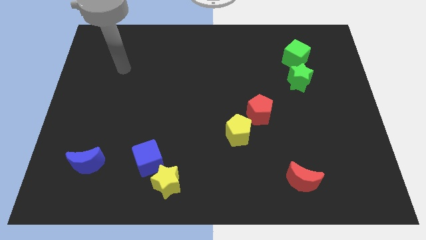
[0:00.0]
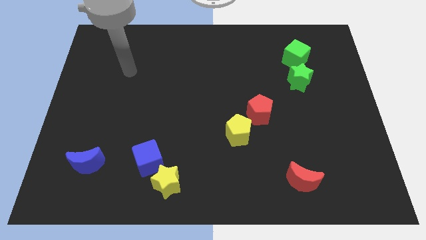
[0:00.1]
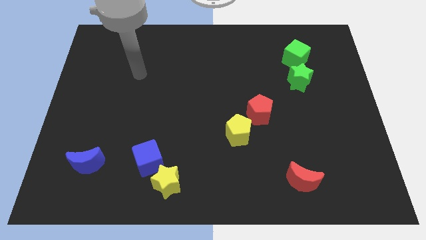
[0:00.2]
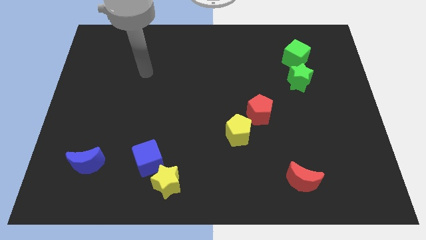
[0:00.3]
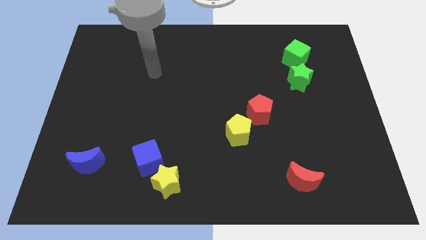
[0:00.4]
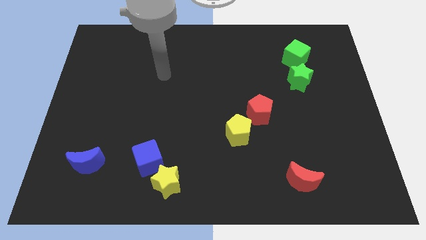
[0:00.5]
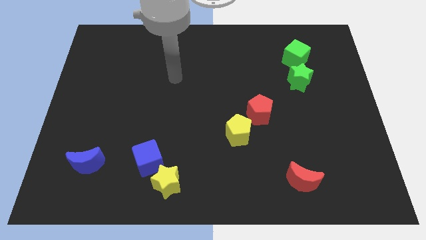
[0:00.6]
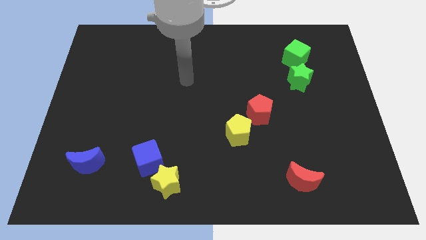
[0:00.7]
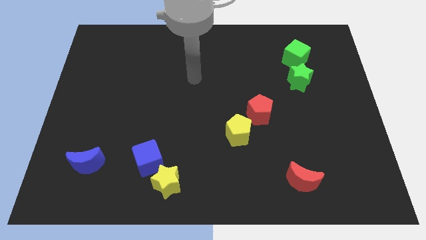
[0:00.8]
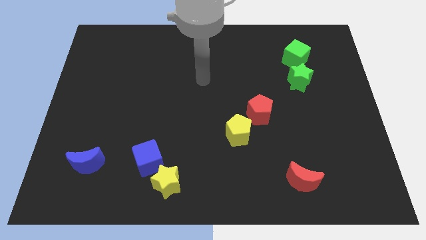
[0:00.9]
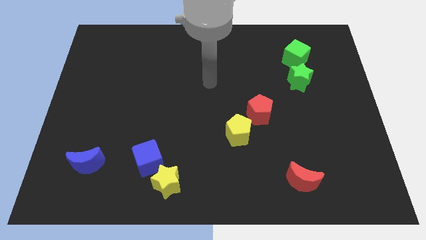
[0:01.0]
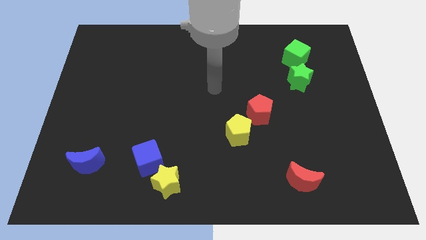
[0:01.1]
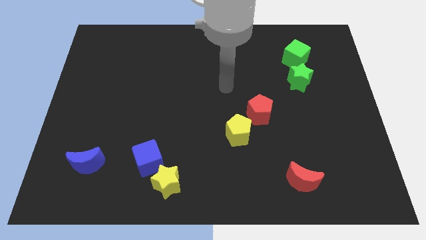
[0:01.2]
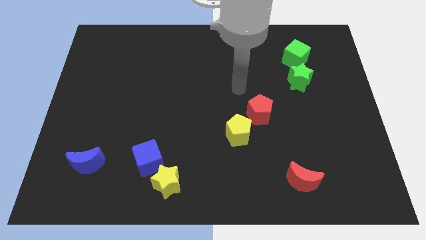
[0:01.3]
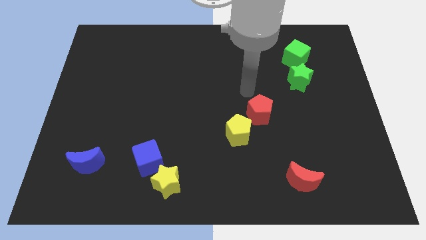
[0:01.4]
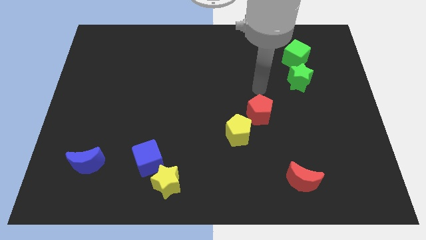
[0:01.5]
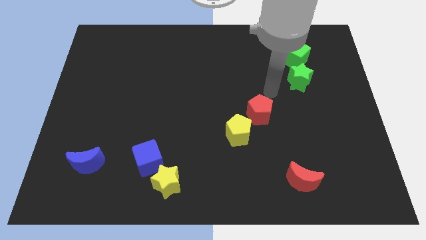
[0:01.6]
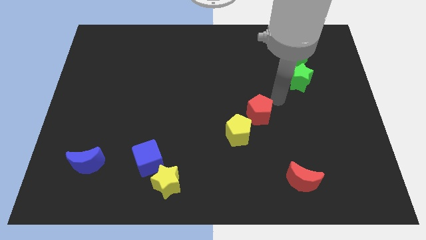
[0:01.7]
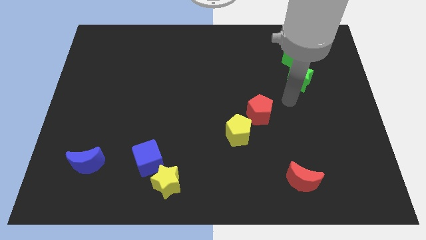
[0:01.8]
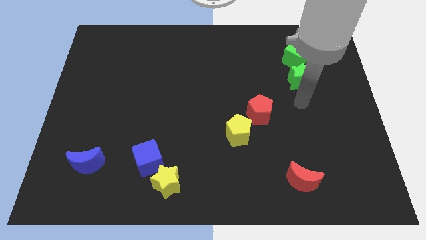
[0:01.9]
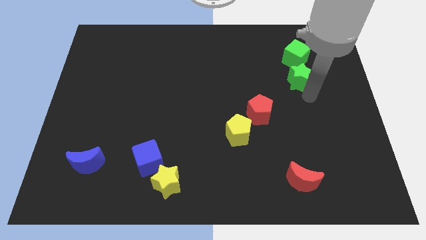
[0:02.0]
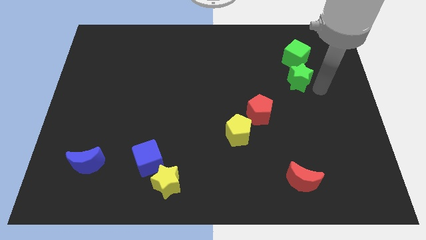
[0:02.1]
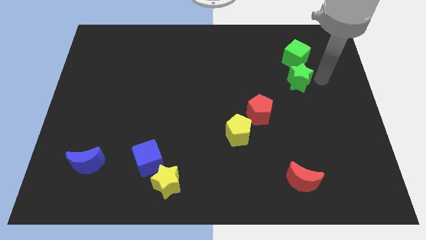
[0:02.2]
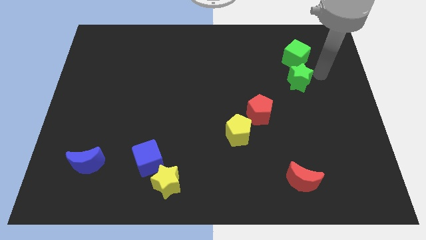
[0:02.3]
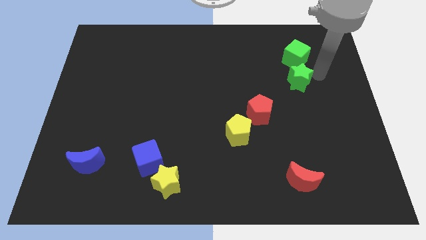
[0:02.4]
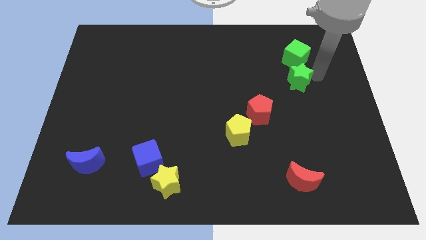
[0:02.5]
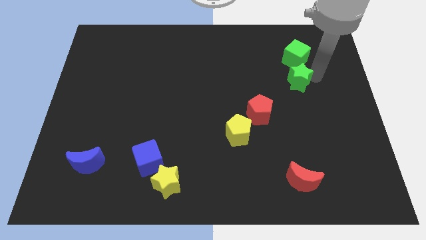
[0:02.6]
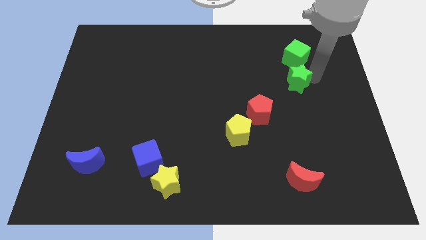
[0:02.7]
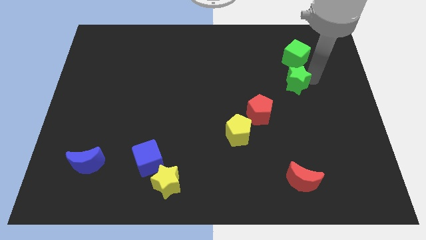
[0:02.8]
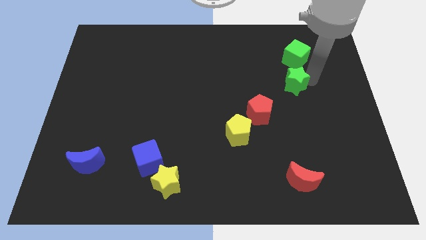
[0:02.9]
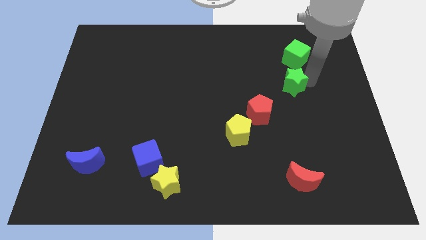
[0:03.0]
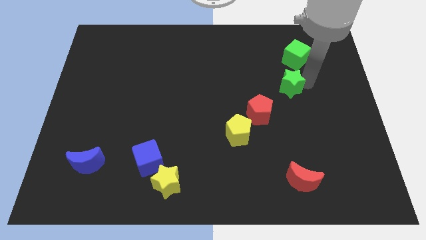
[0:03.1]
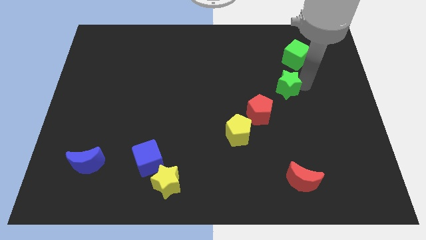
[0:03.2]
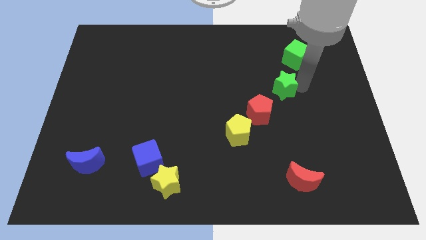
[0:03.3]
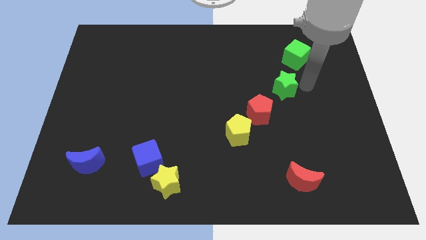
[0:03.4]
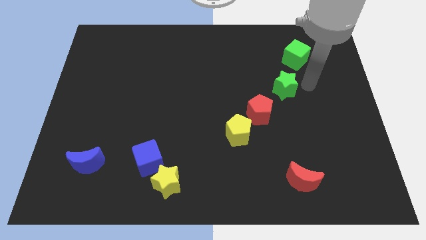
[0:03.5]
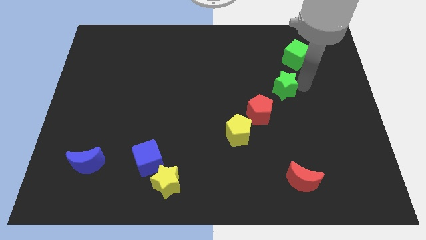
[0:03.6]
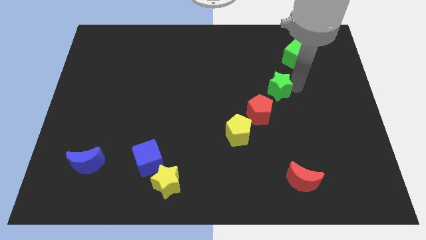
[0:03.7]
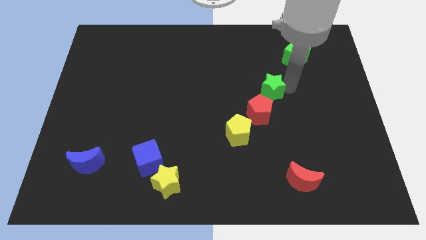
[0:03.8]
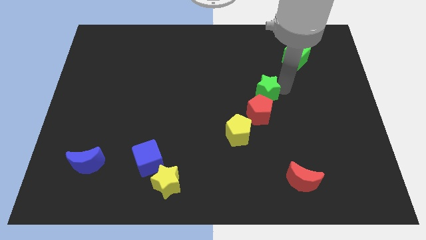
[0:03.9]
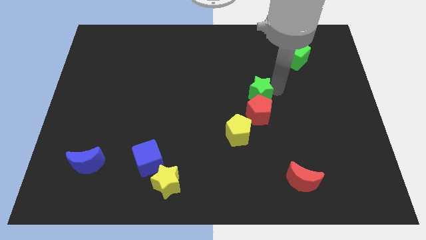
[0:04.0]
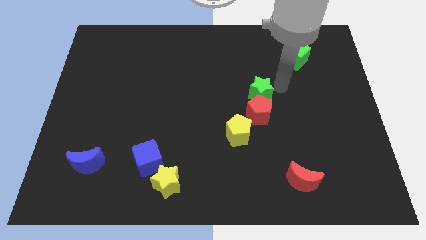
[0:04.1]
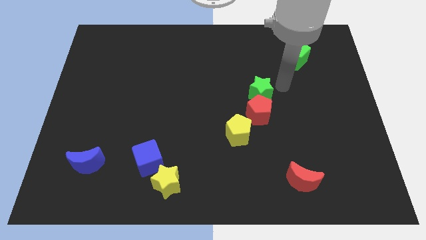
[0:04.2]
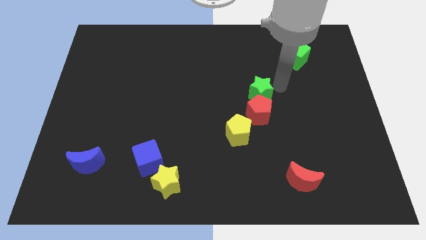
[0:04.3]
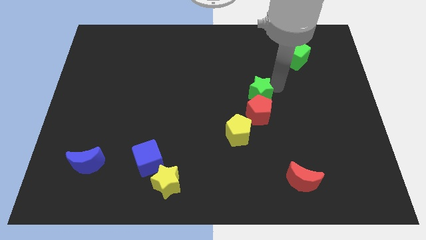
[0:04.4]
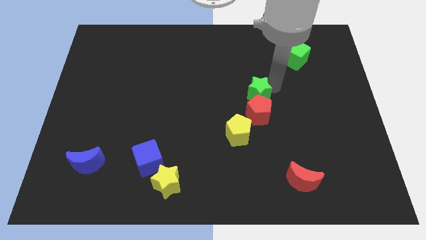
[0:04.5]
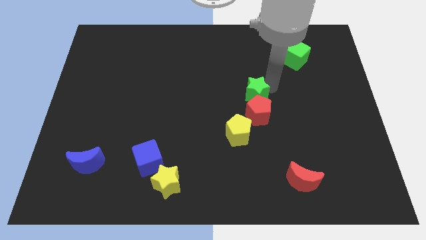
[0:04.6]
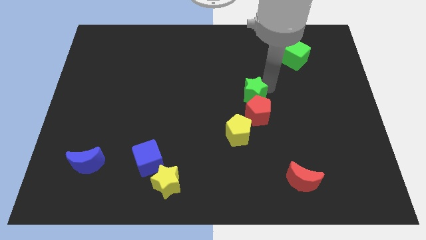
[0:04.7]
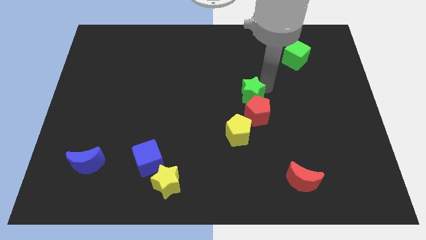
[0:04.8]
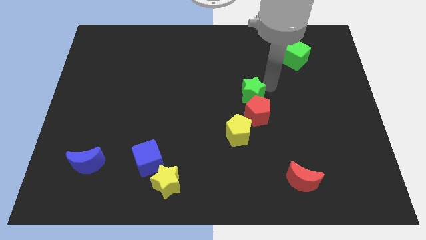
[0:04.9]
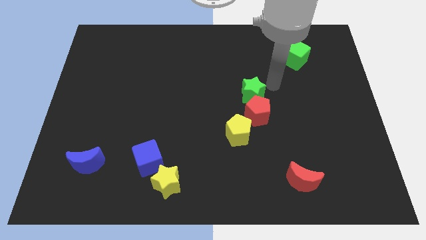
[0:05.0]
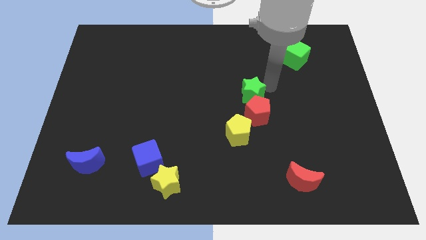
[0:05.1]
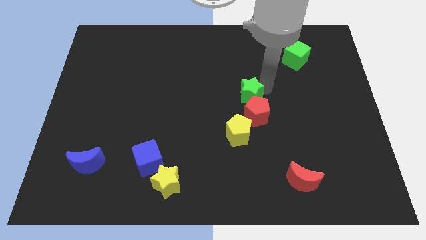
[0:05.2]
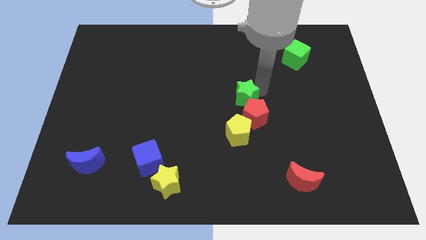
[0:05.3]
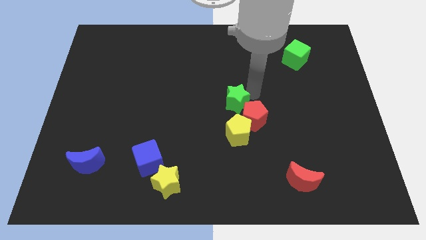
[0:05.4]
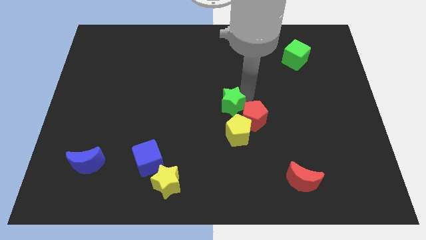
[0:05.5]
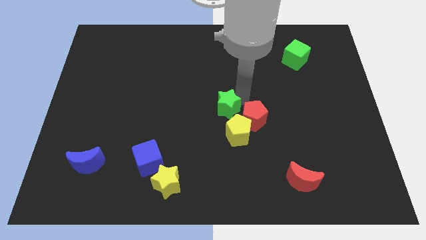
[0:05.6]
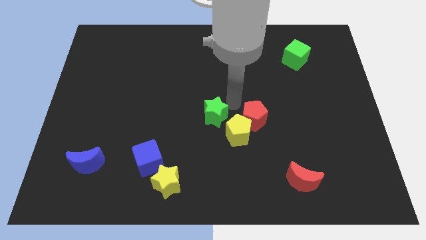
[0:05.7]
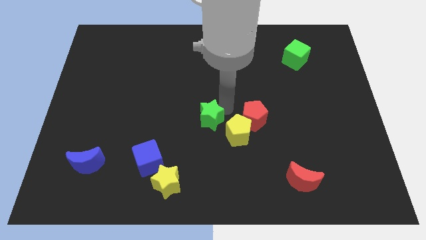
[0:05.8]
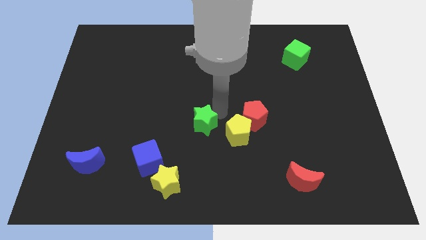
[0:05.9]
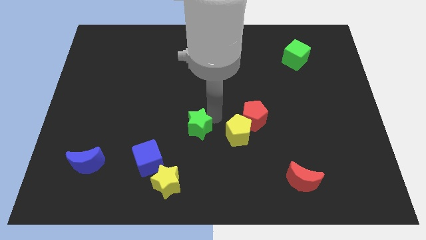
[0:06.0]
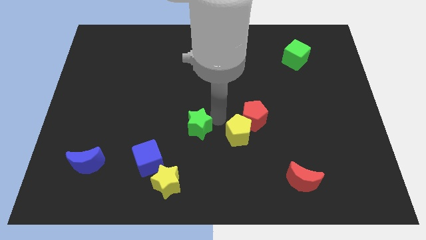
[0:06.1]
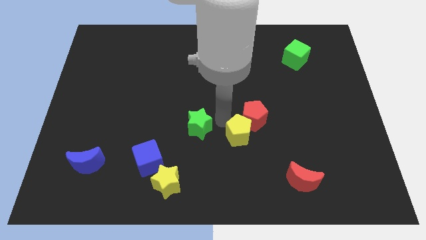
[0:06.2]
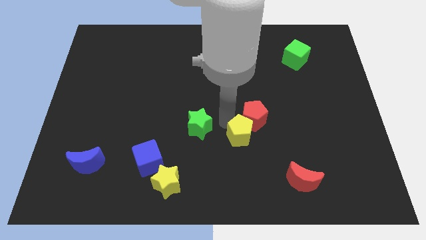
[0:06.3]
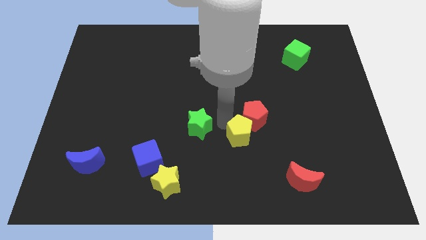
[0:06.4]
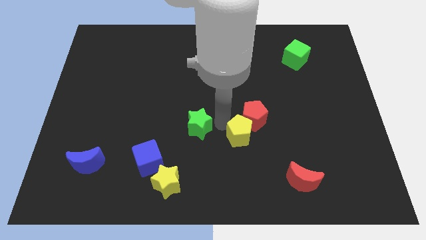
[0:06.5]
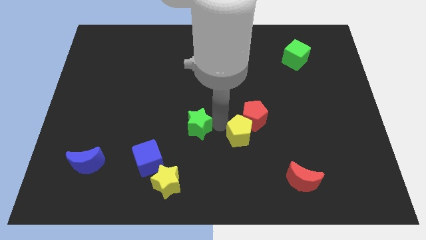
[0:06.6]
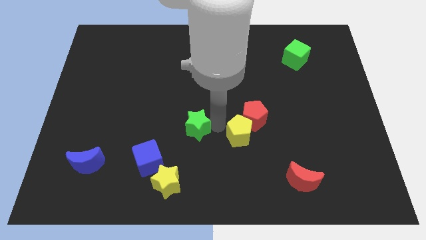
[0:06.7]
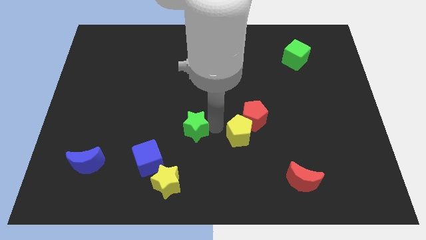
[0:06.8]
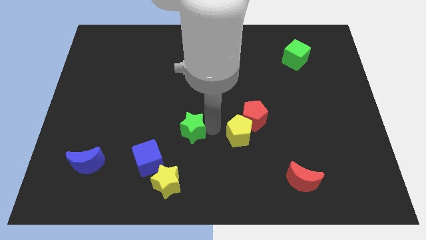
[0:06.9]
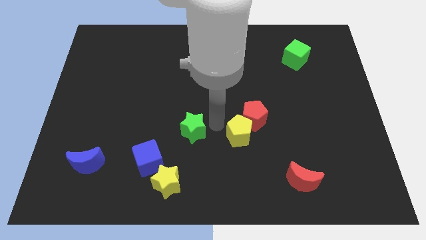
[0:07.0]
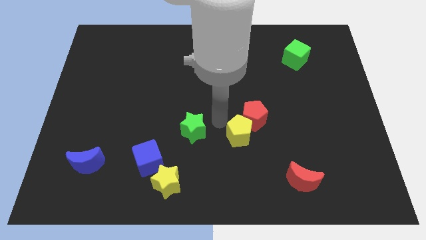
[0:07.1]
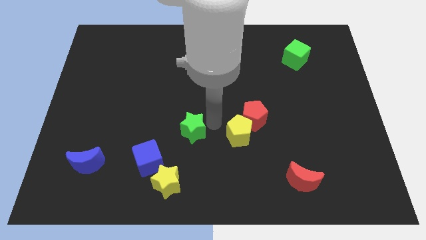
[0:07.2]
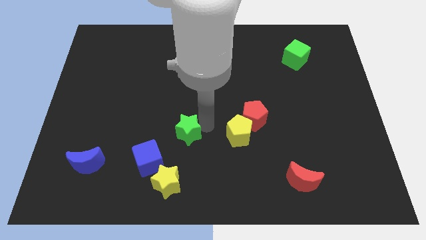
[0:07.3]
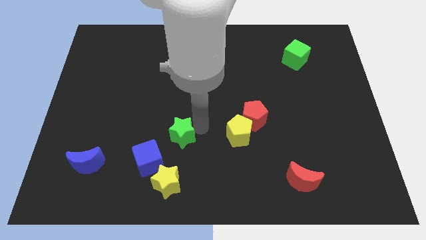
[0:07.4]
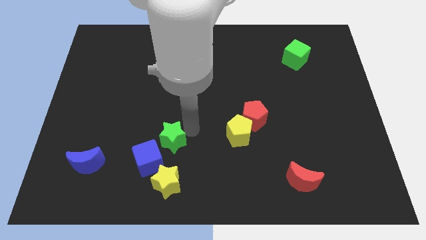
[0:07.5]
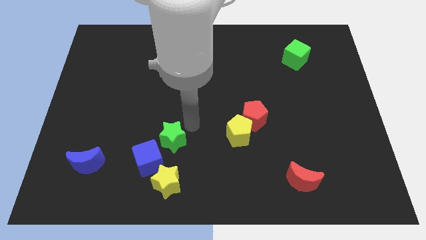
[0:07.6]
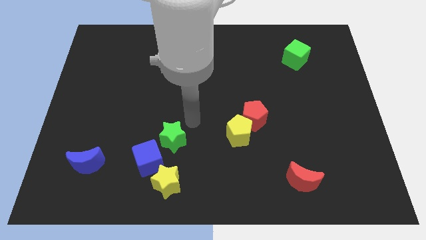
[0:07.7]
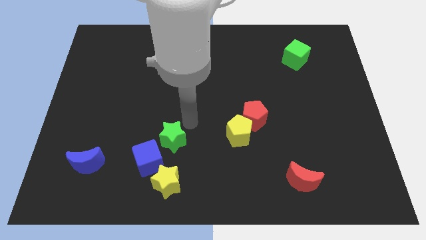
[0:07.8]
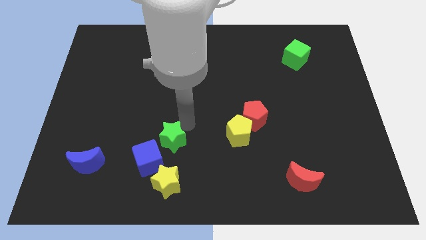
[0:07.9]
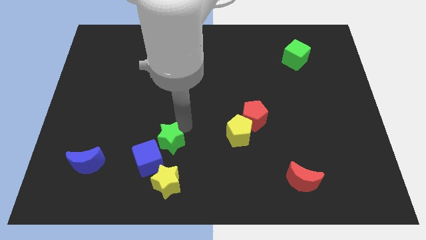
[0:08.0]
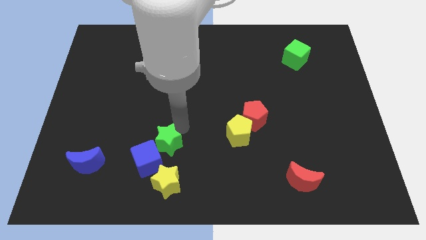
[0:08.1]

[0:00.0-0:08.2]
put the green star to the blue cube
